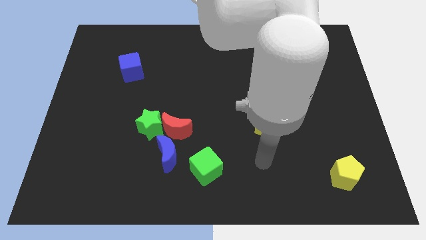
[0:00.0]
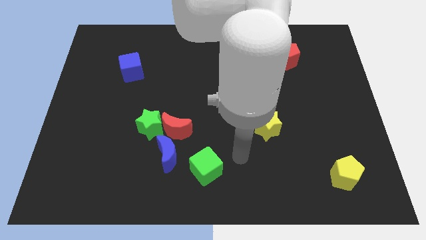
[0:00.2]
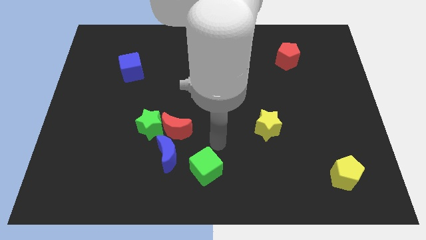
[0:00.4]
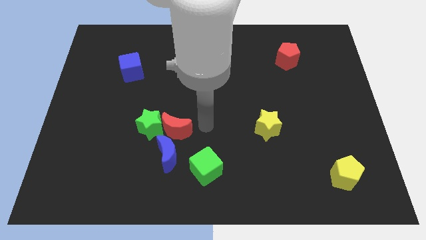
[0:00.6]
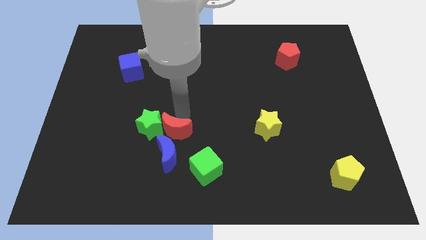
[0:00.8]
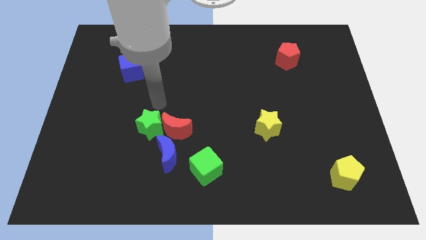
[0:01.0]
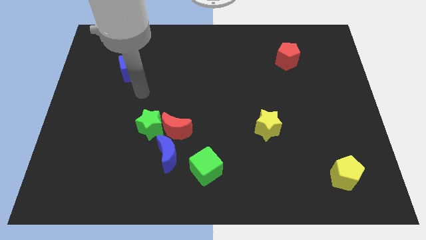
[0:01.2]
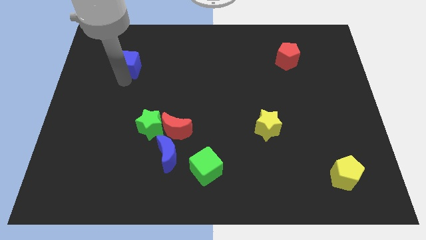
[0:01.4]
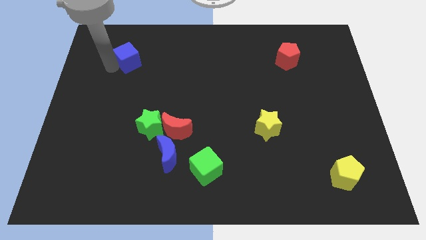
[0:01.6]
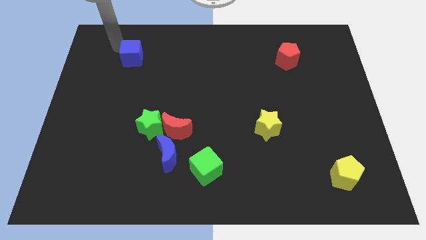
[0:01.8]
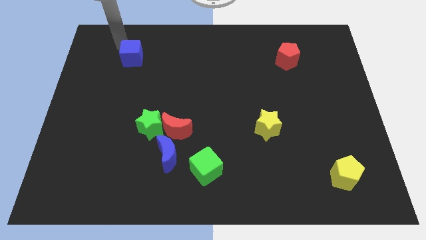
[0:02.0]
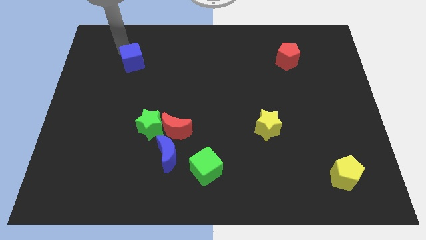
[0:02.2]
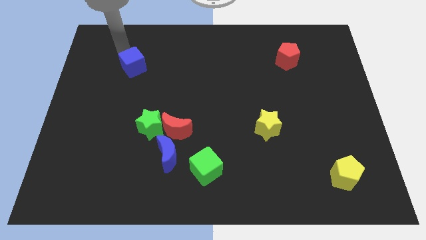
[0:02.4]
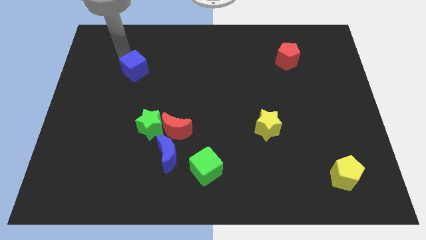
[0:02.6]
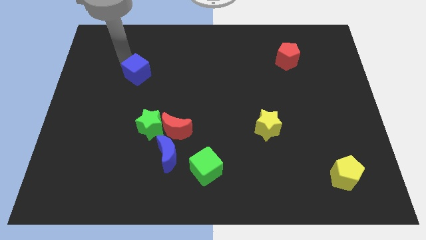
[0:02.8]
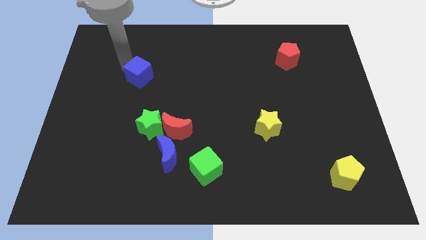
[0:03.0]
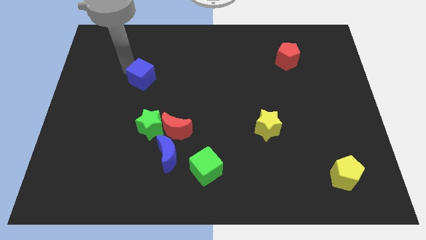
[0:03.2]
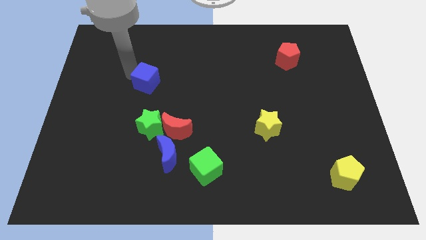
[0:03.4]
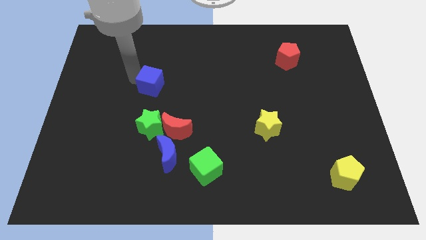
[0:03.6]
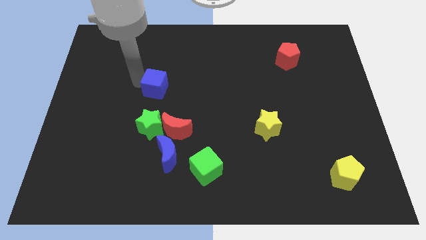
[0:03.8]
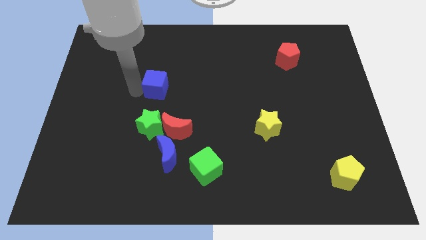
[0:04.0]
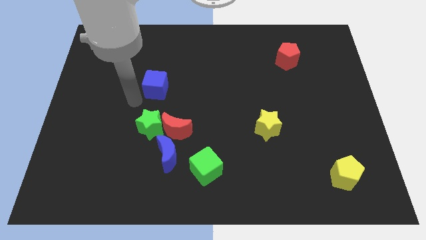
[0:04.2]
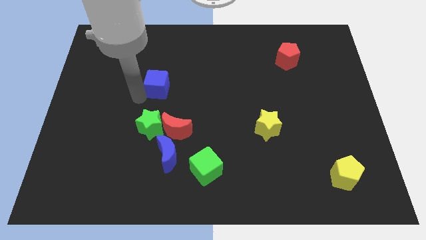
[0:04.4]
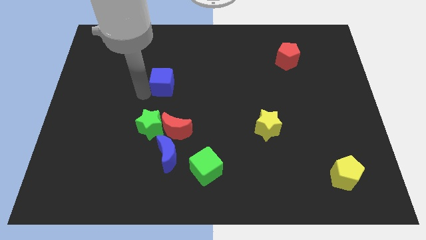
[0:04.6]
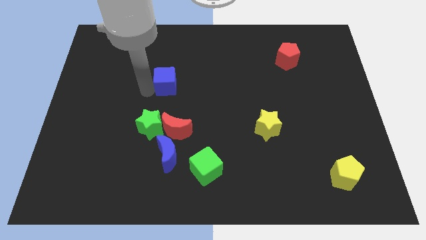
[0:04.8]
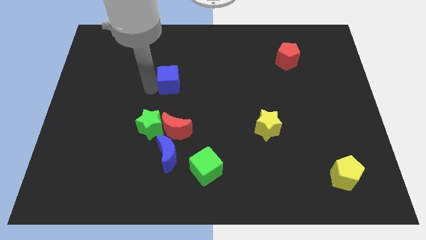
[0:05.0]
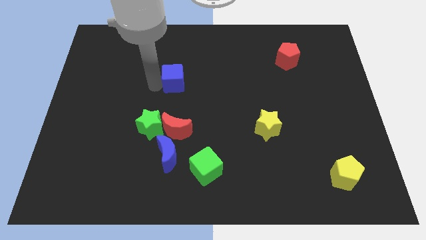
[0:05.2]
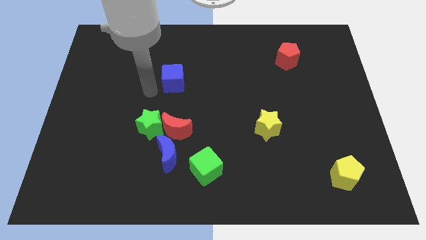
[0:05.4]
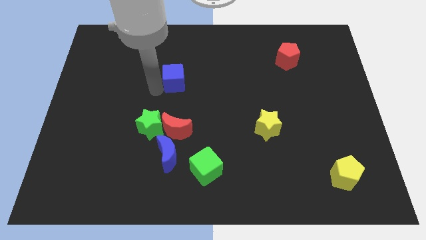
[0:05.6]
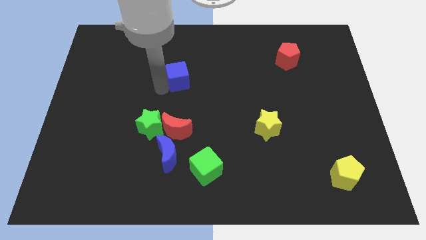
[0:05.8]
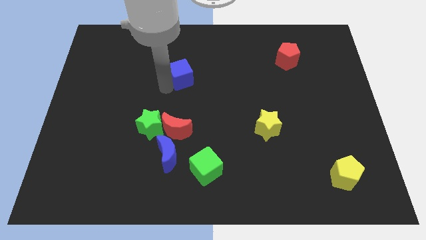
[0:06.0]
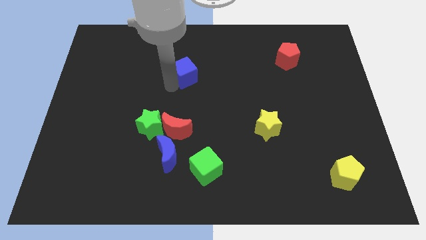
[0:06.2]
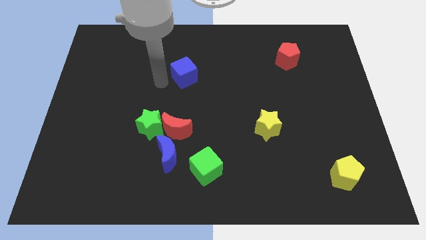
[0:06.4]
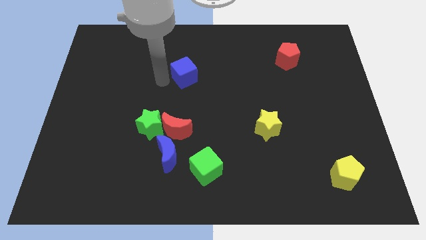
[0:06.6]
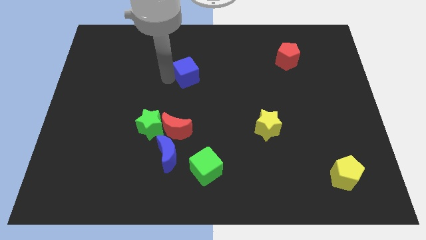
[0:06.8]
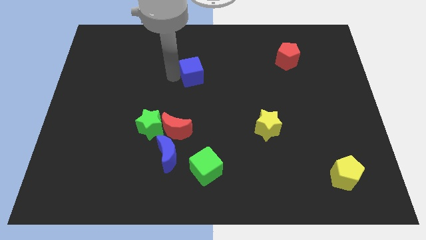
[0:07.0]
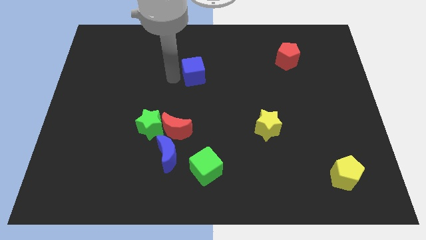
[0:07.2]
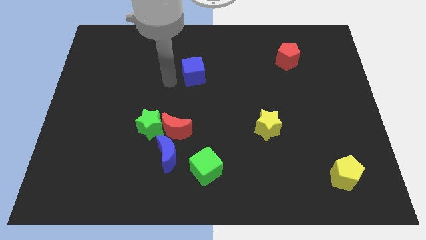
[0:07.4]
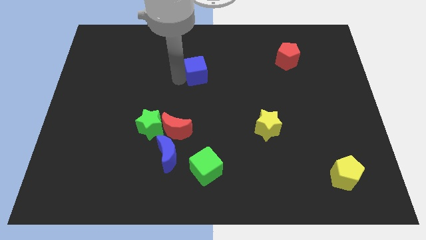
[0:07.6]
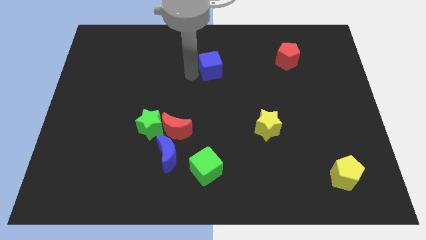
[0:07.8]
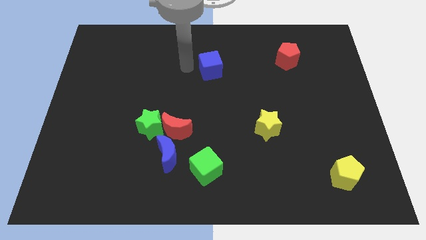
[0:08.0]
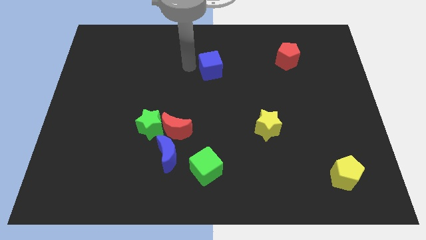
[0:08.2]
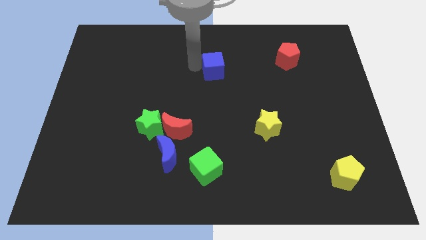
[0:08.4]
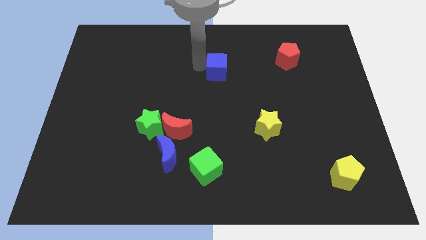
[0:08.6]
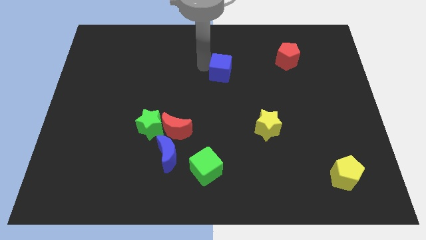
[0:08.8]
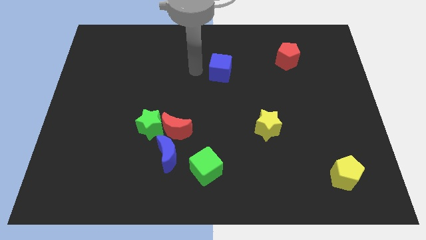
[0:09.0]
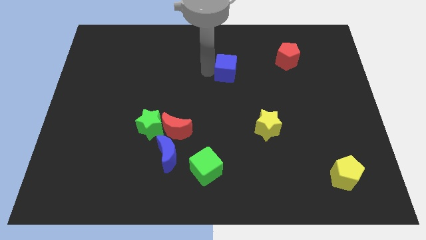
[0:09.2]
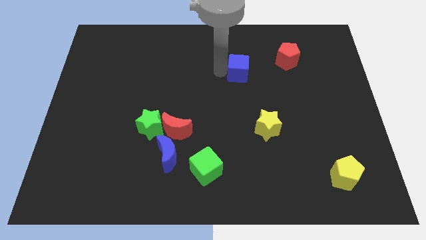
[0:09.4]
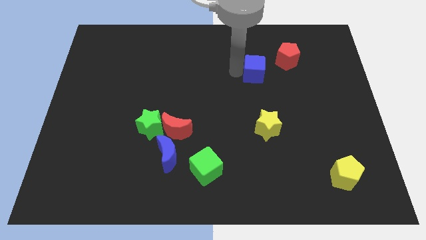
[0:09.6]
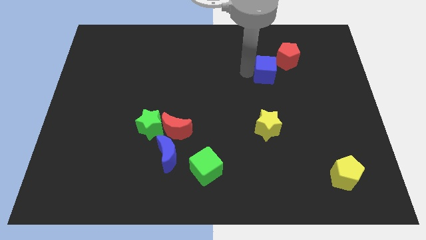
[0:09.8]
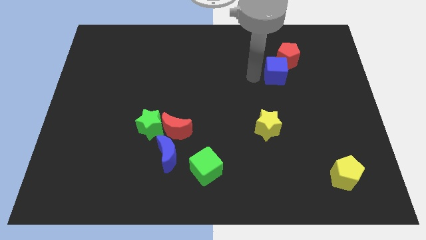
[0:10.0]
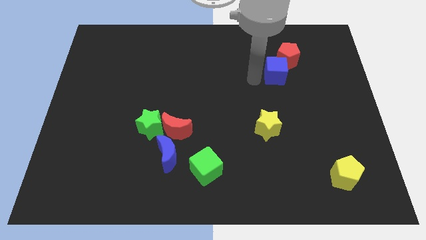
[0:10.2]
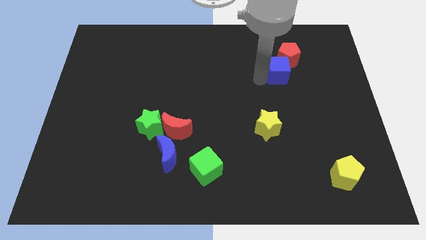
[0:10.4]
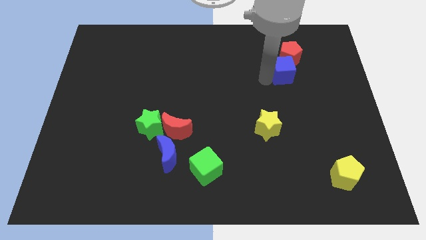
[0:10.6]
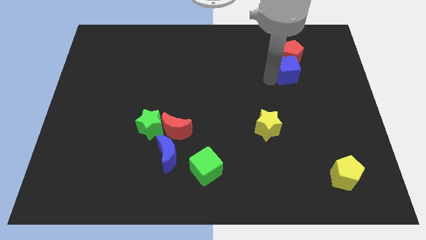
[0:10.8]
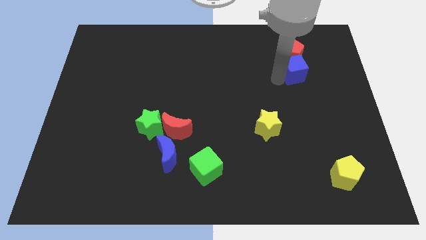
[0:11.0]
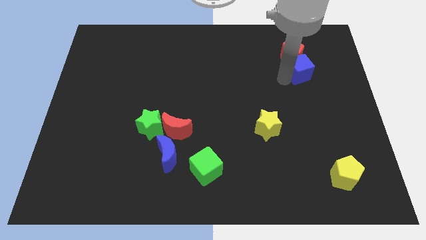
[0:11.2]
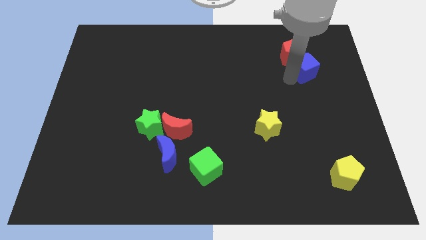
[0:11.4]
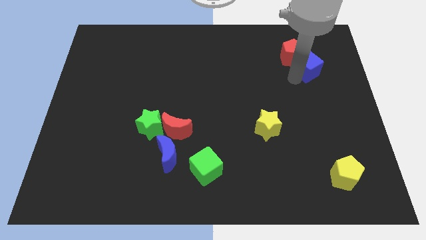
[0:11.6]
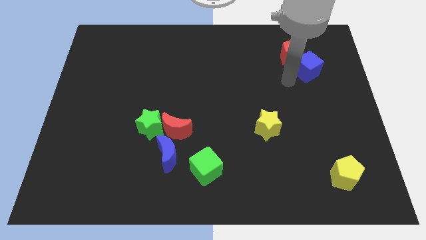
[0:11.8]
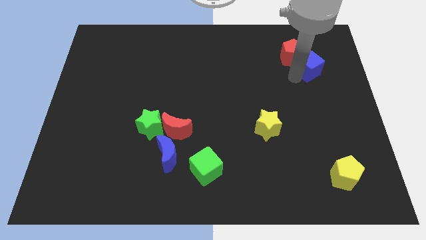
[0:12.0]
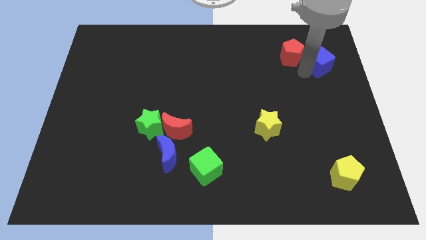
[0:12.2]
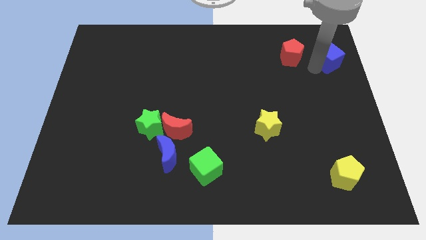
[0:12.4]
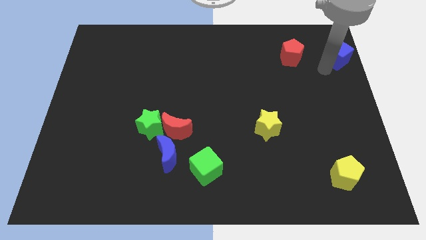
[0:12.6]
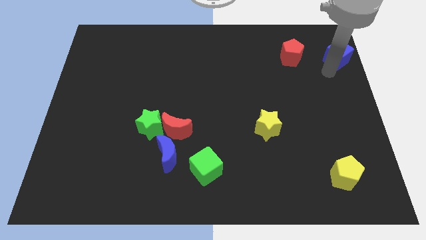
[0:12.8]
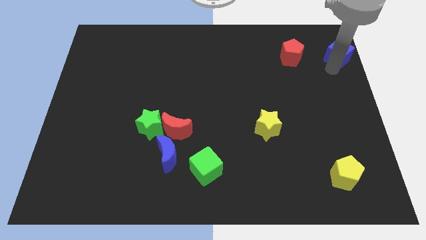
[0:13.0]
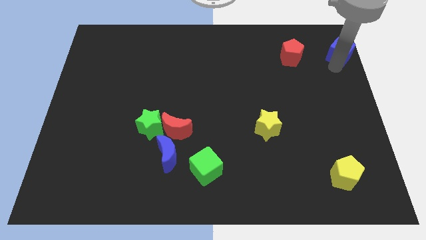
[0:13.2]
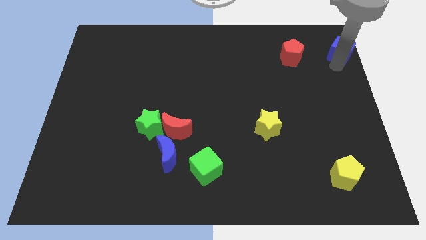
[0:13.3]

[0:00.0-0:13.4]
put the blue cube to the top right of the board

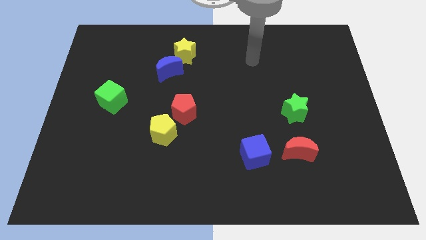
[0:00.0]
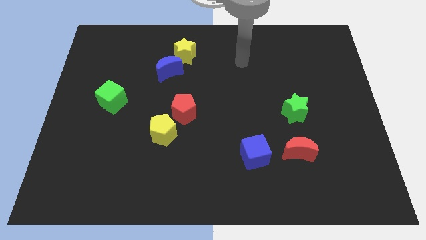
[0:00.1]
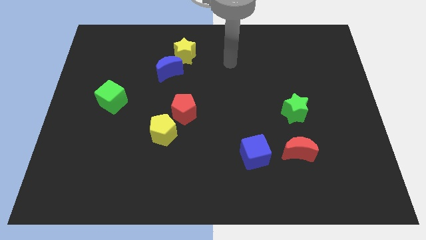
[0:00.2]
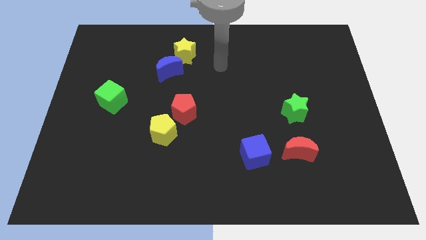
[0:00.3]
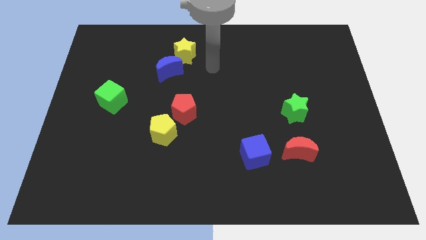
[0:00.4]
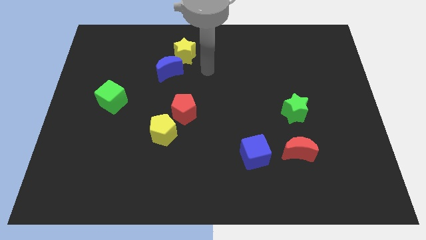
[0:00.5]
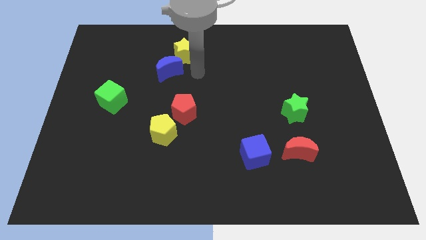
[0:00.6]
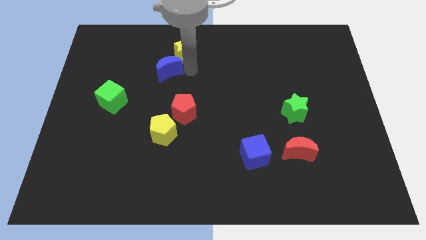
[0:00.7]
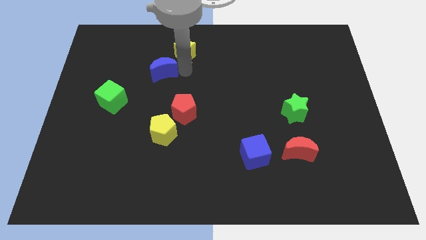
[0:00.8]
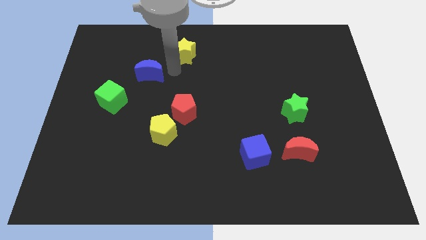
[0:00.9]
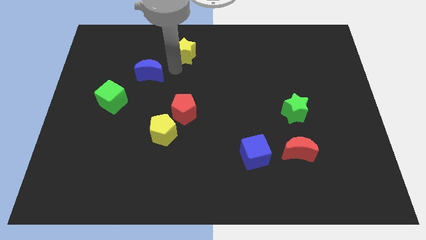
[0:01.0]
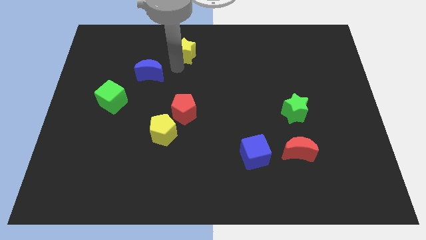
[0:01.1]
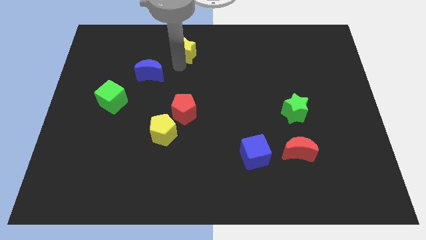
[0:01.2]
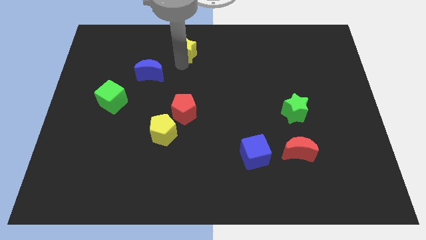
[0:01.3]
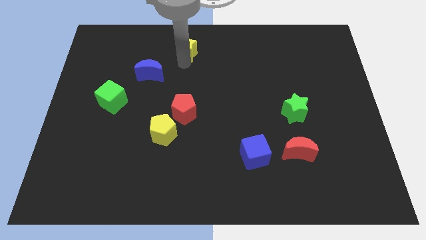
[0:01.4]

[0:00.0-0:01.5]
slide the yellow star to the towards your base
